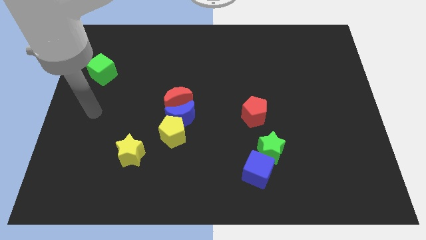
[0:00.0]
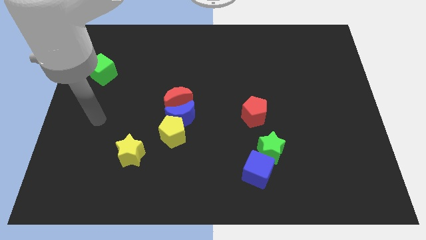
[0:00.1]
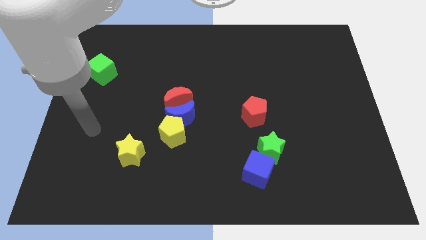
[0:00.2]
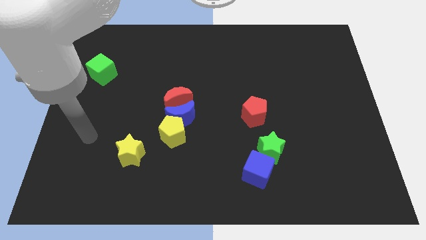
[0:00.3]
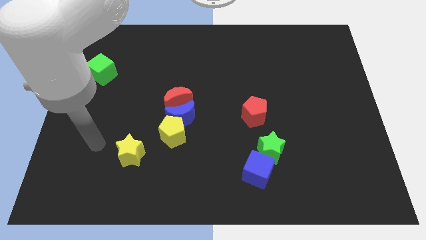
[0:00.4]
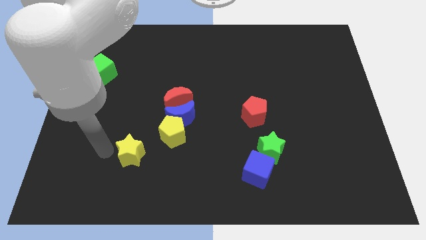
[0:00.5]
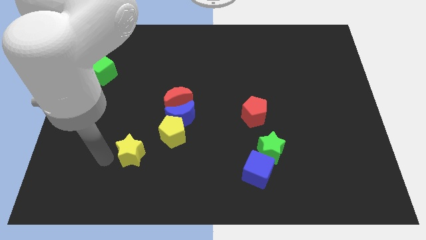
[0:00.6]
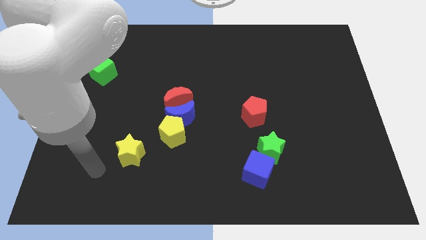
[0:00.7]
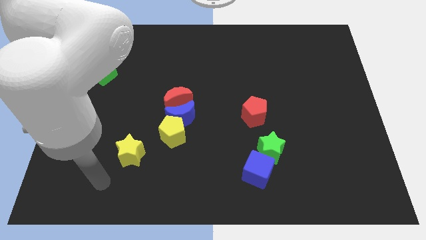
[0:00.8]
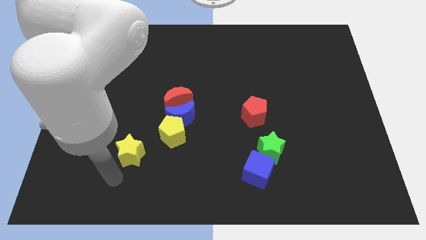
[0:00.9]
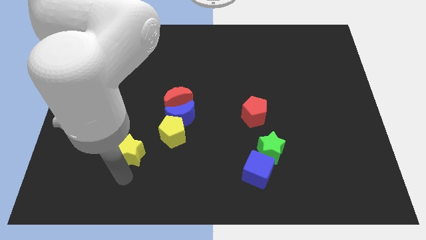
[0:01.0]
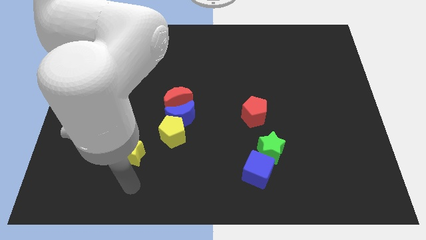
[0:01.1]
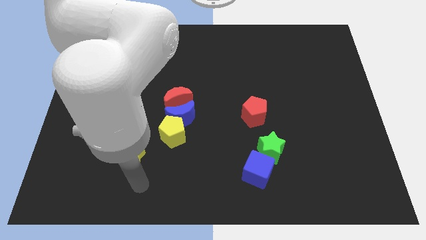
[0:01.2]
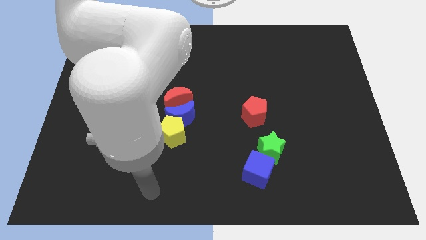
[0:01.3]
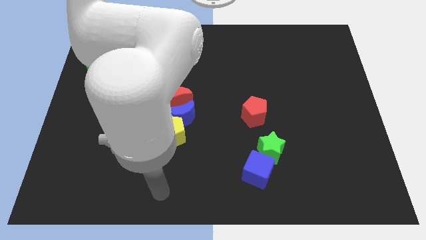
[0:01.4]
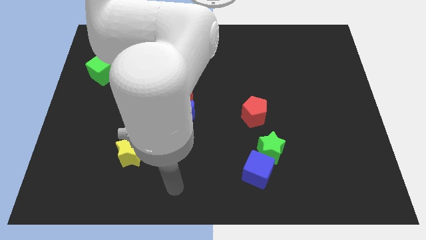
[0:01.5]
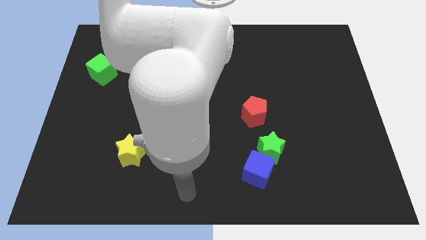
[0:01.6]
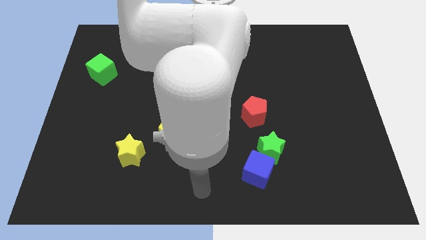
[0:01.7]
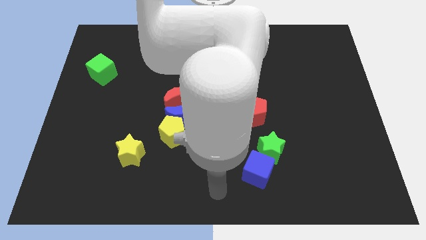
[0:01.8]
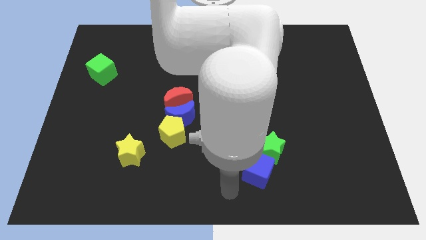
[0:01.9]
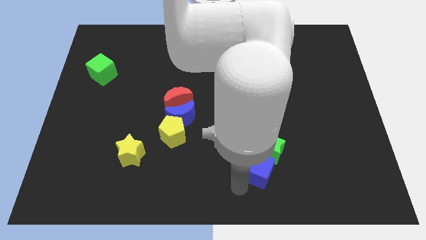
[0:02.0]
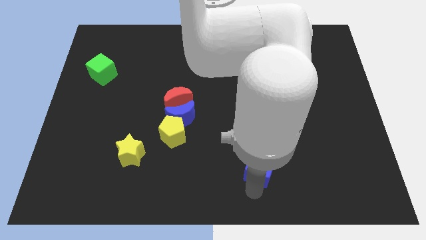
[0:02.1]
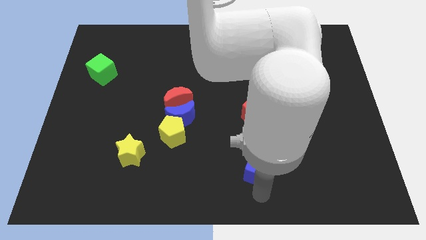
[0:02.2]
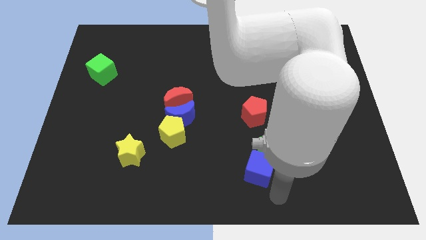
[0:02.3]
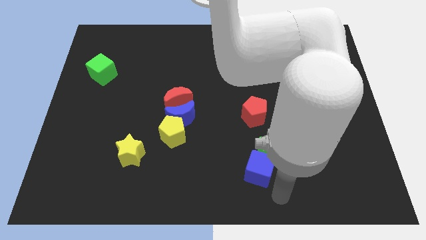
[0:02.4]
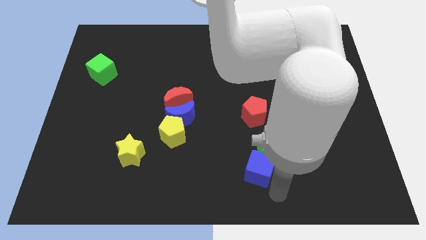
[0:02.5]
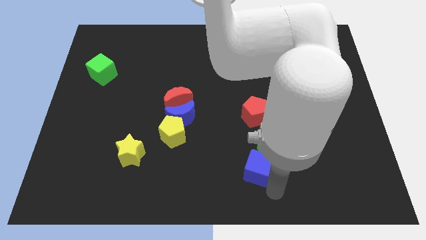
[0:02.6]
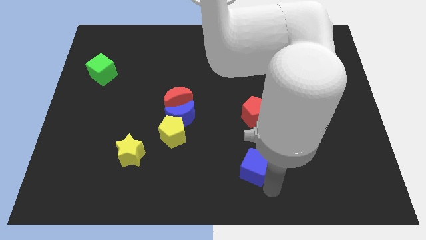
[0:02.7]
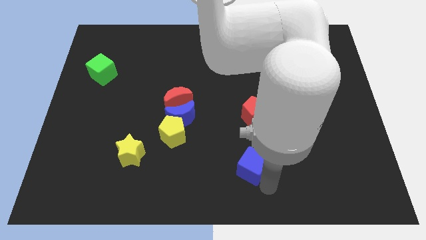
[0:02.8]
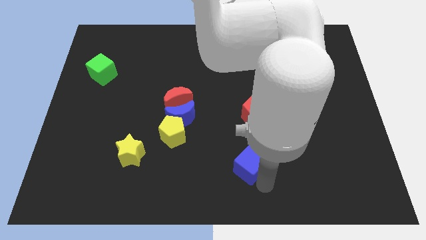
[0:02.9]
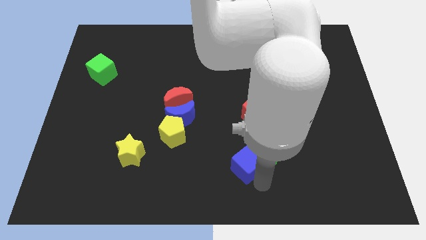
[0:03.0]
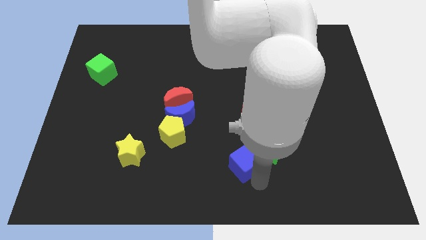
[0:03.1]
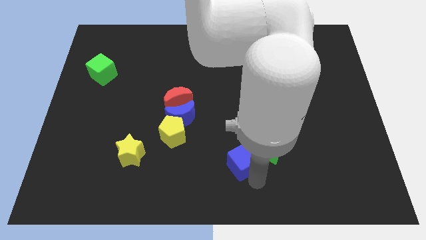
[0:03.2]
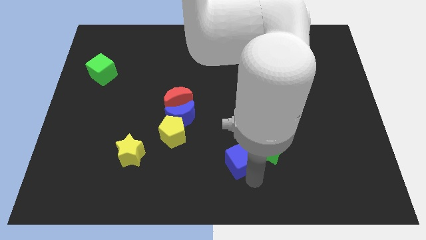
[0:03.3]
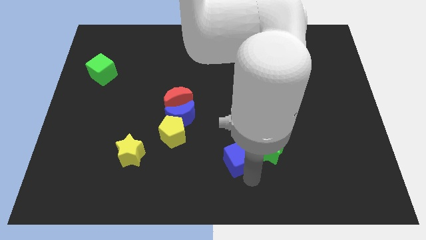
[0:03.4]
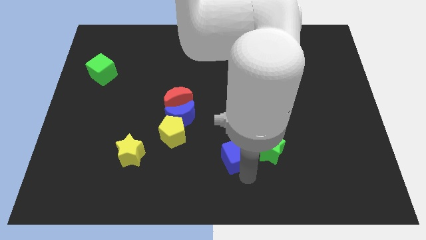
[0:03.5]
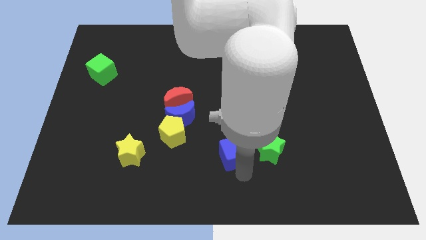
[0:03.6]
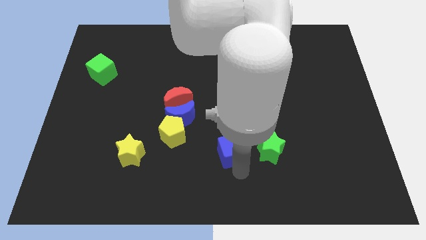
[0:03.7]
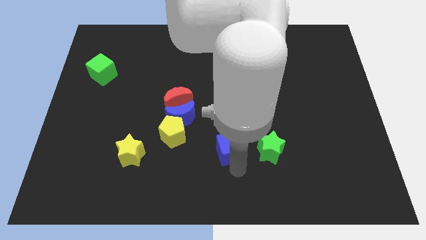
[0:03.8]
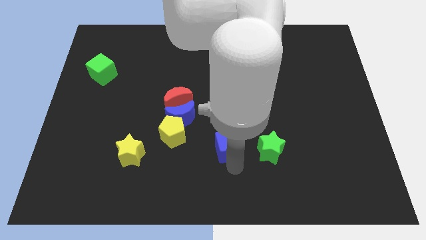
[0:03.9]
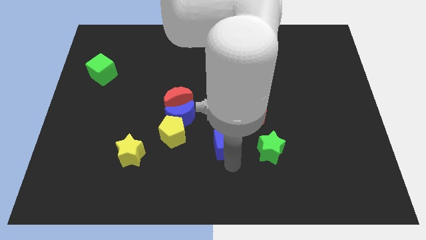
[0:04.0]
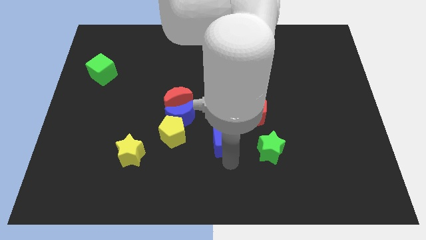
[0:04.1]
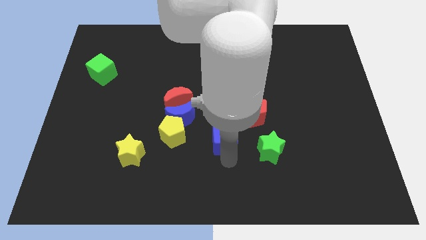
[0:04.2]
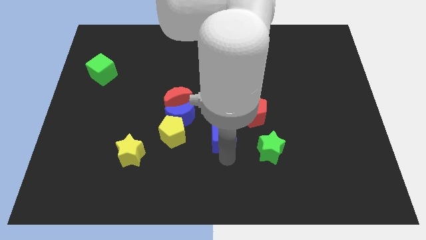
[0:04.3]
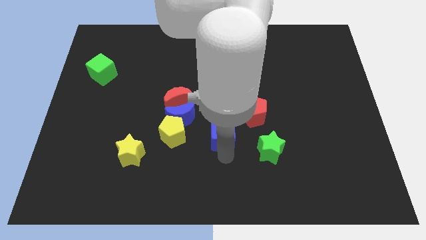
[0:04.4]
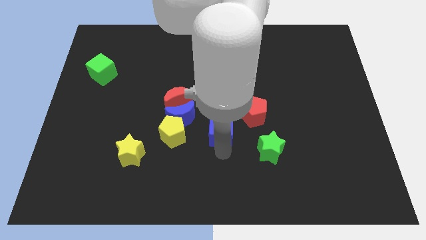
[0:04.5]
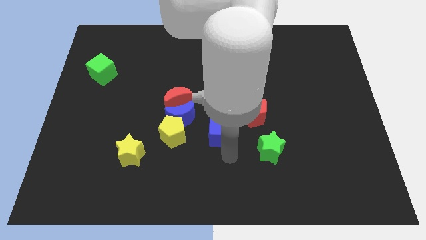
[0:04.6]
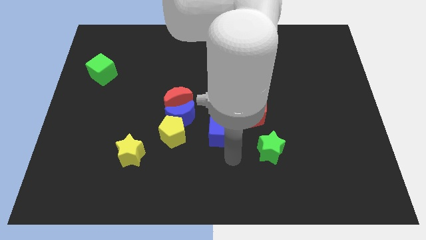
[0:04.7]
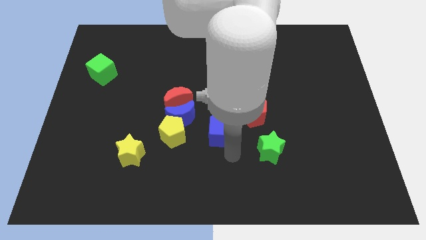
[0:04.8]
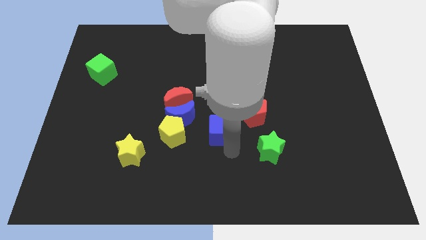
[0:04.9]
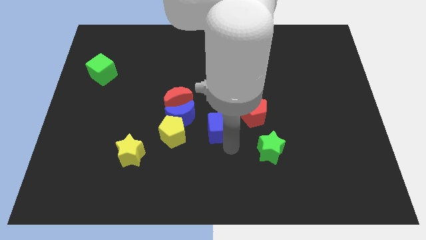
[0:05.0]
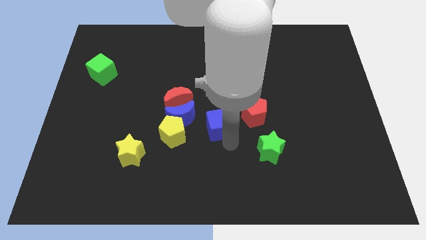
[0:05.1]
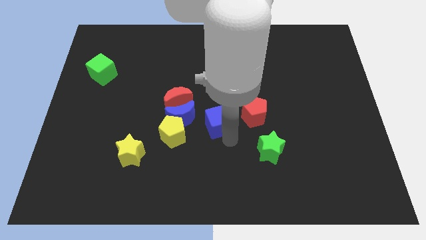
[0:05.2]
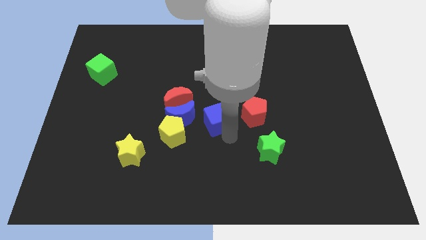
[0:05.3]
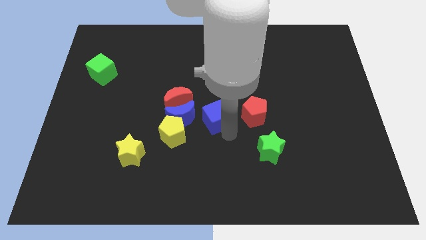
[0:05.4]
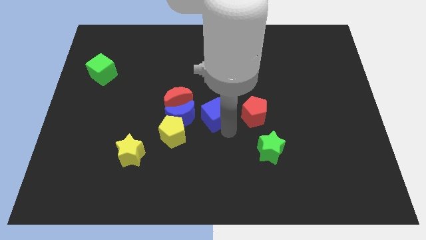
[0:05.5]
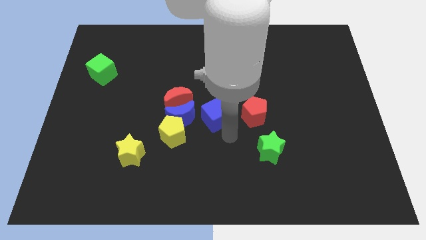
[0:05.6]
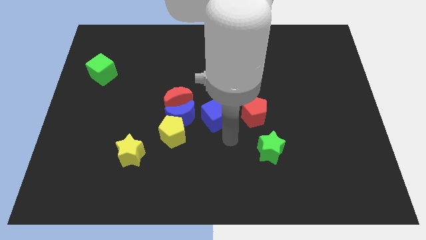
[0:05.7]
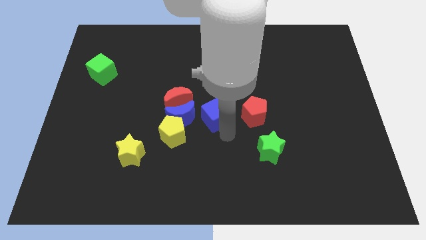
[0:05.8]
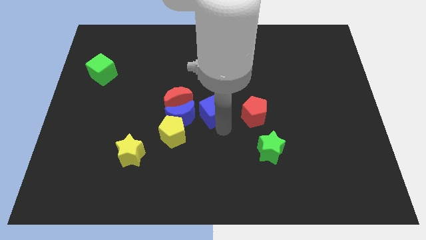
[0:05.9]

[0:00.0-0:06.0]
move the blue cube to the top right of the blue moon
